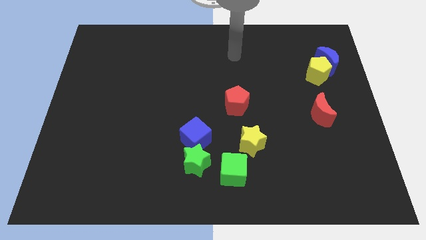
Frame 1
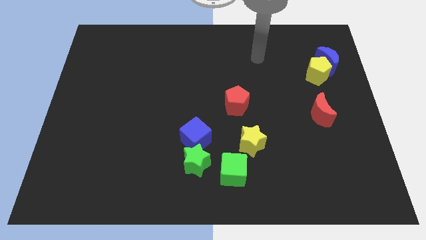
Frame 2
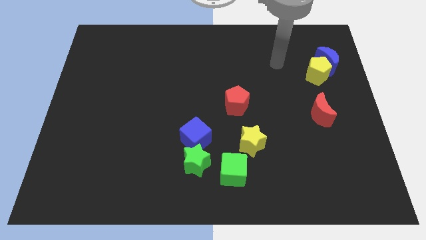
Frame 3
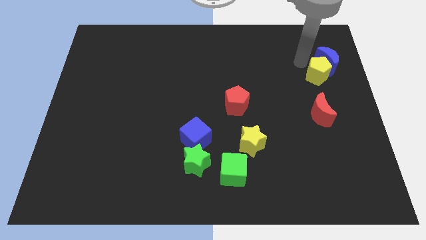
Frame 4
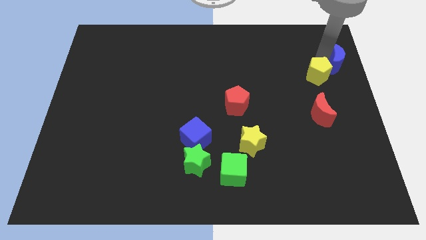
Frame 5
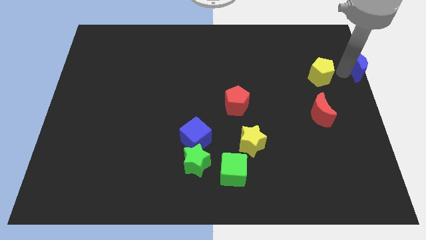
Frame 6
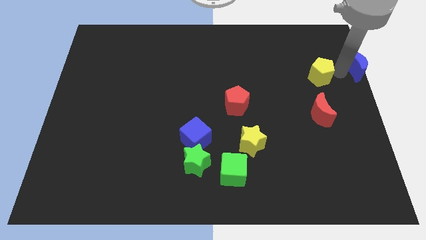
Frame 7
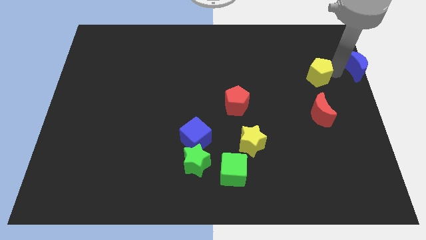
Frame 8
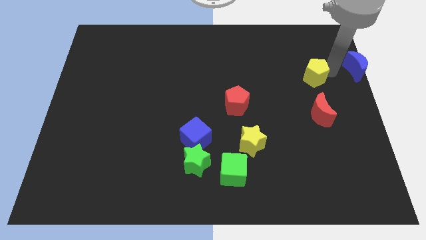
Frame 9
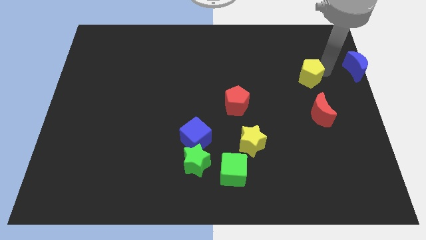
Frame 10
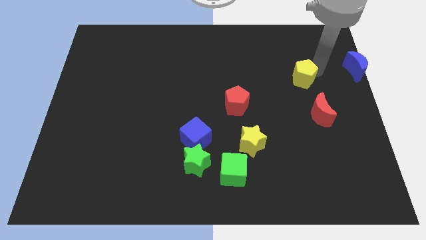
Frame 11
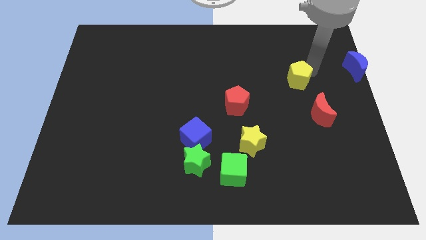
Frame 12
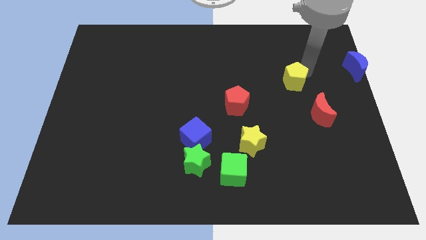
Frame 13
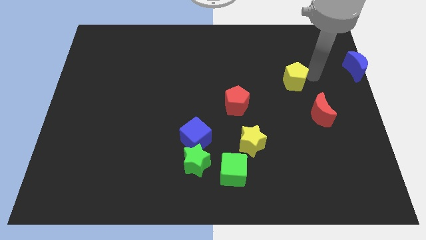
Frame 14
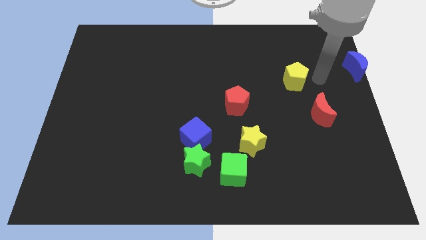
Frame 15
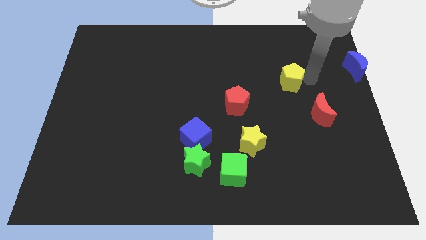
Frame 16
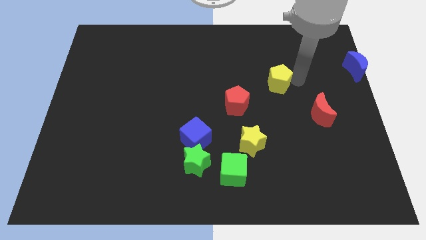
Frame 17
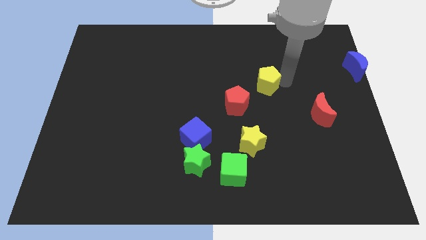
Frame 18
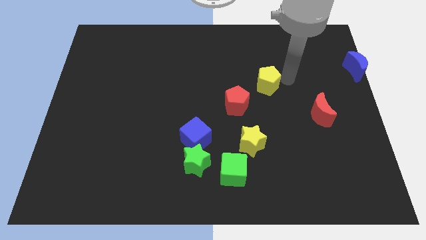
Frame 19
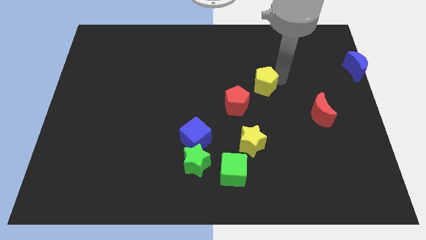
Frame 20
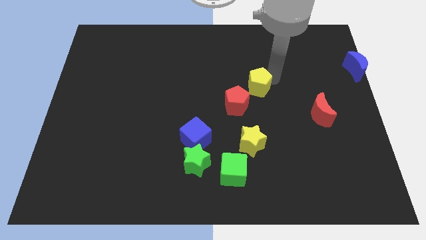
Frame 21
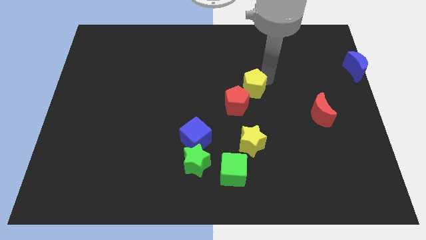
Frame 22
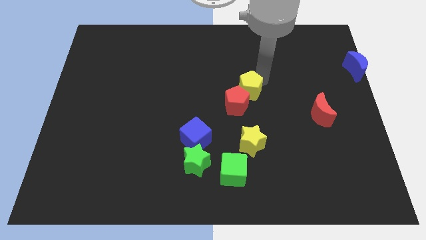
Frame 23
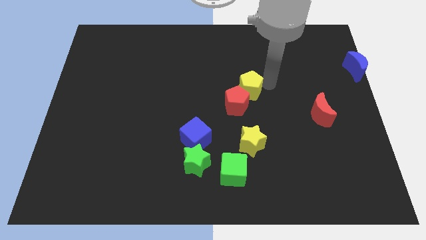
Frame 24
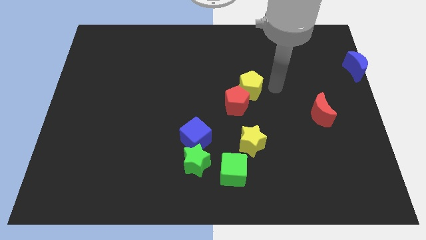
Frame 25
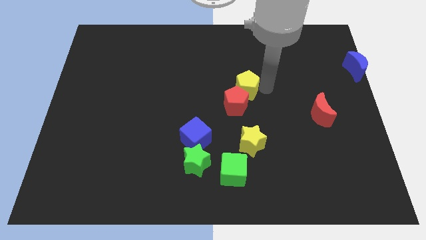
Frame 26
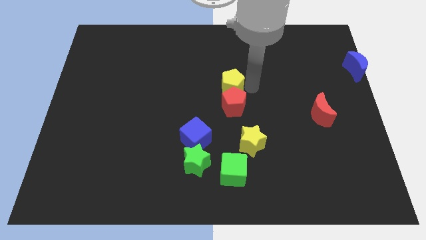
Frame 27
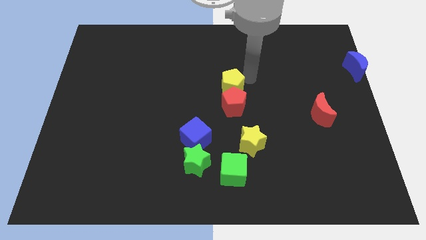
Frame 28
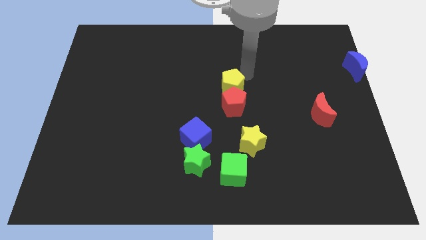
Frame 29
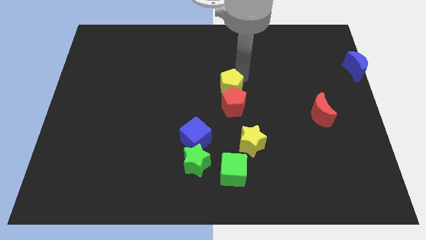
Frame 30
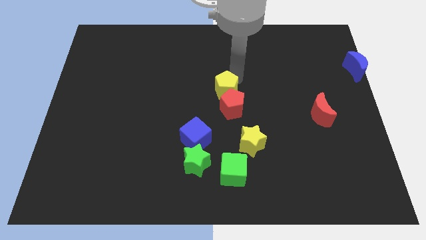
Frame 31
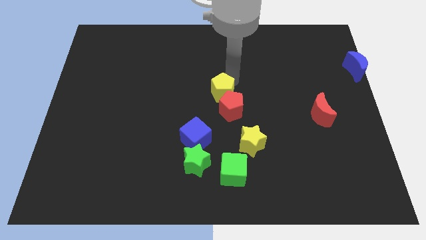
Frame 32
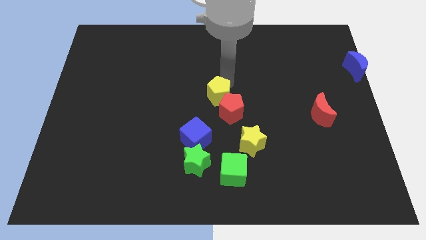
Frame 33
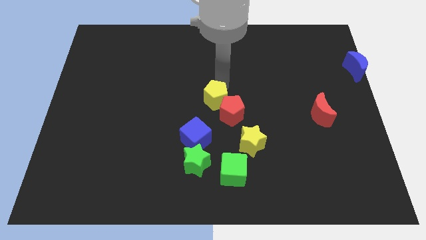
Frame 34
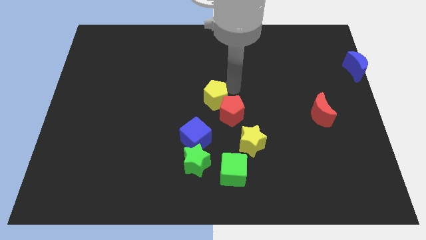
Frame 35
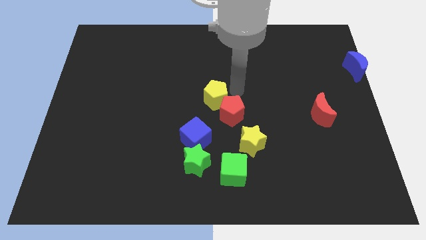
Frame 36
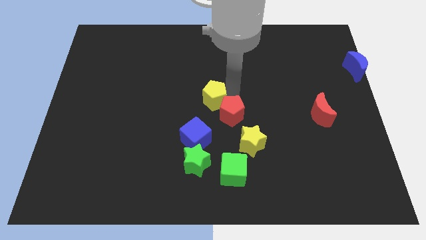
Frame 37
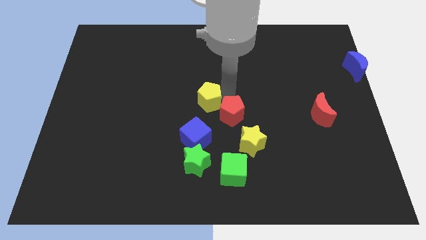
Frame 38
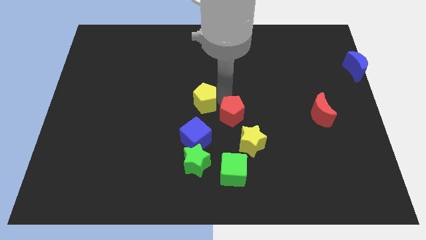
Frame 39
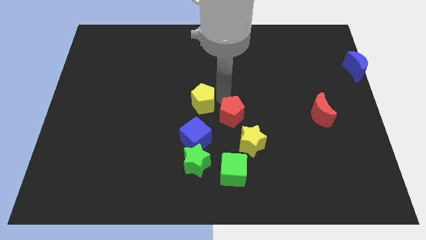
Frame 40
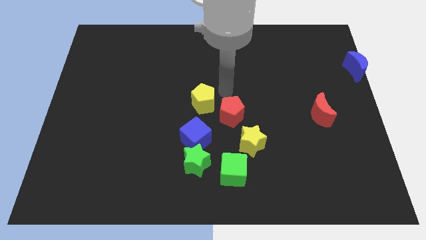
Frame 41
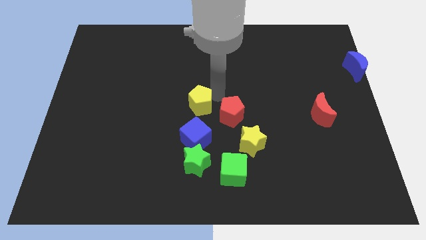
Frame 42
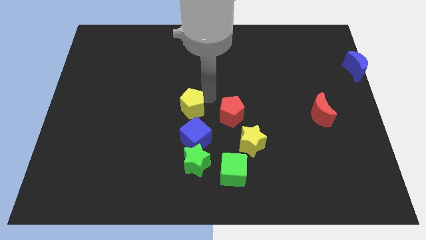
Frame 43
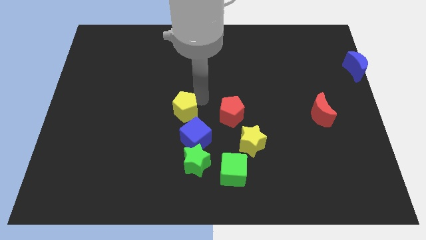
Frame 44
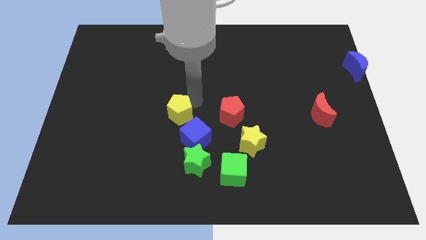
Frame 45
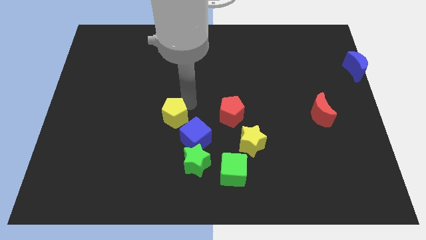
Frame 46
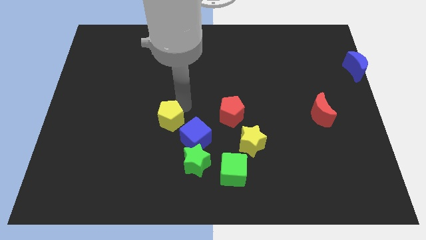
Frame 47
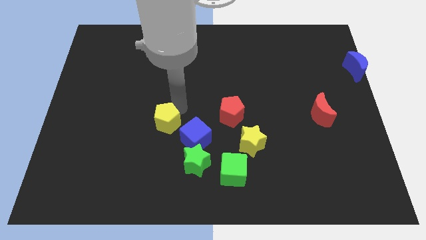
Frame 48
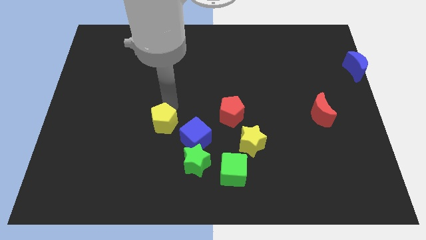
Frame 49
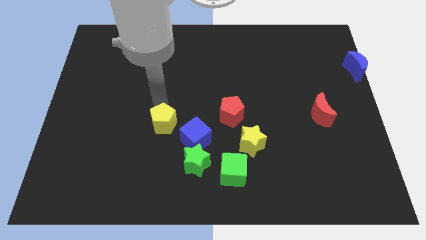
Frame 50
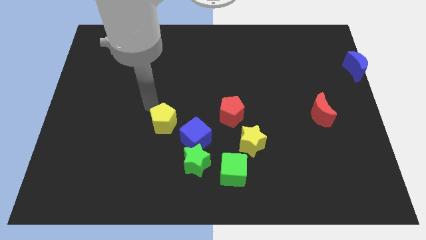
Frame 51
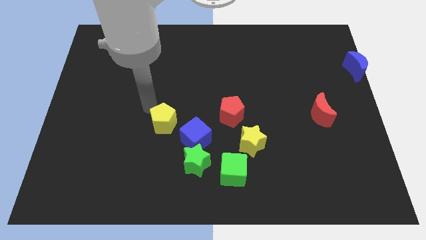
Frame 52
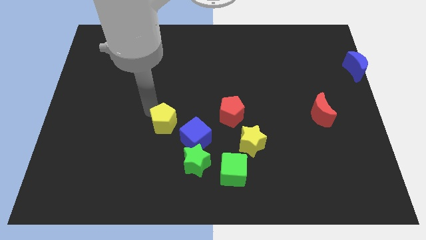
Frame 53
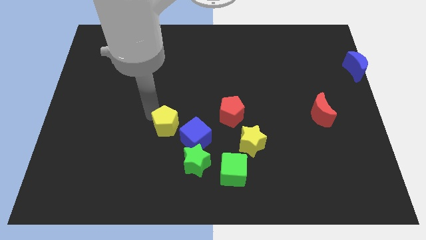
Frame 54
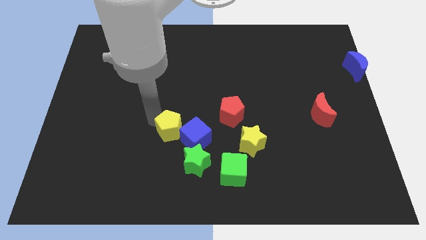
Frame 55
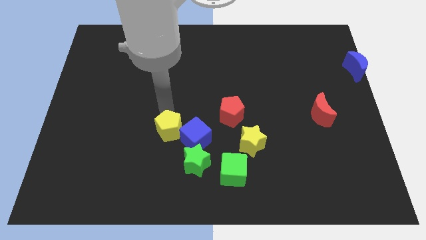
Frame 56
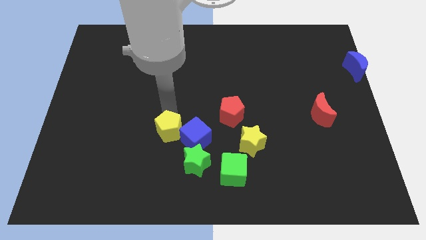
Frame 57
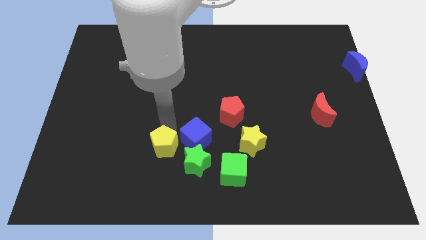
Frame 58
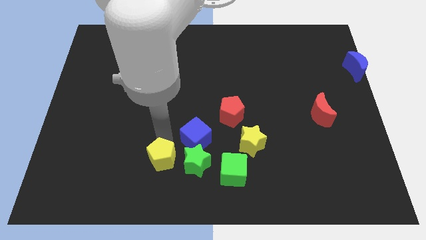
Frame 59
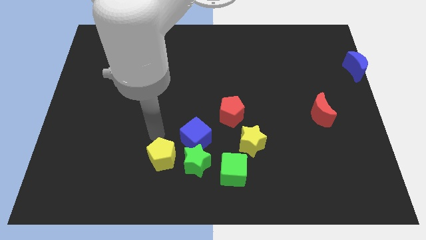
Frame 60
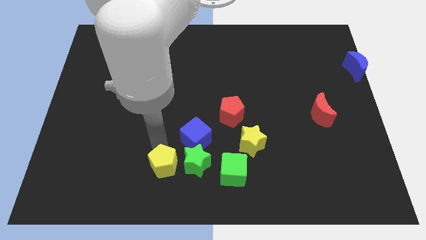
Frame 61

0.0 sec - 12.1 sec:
put the yellow pentagon diagonally down and to the left of the green star

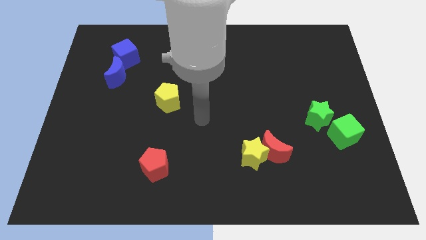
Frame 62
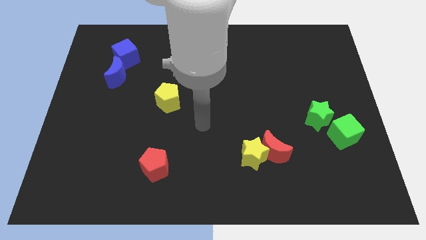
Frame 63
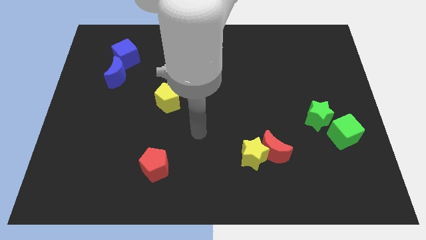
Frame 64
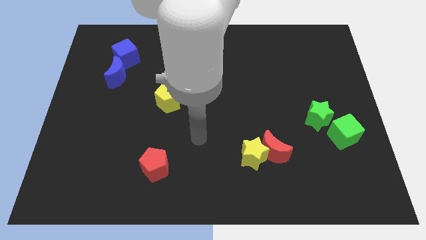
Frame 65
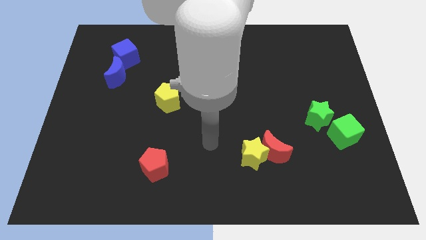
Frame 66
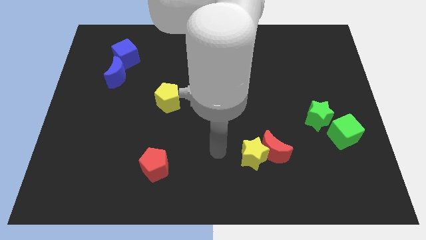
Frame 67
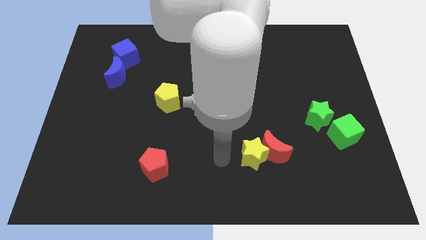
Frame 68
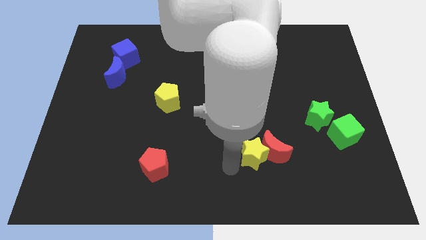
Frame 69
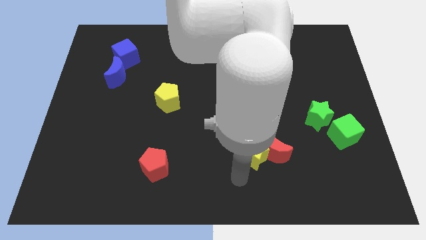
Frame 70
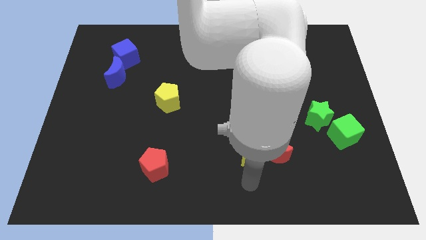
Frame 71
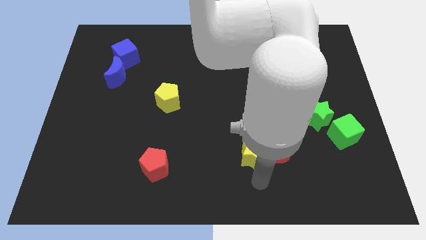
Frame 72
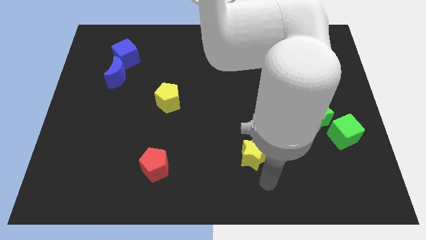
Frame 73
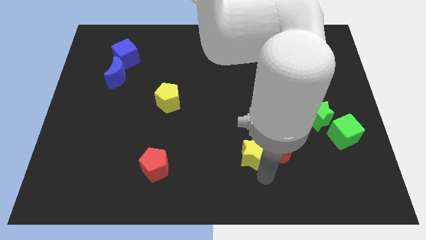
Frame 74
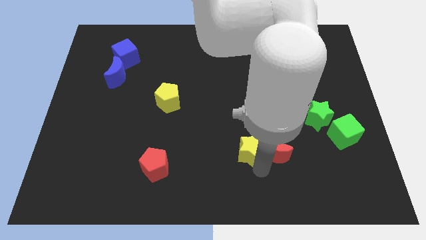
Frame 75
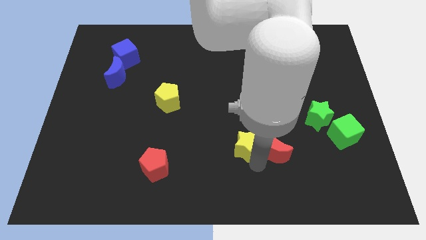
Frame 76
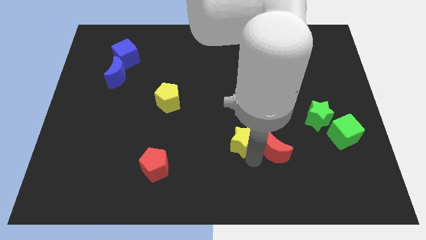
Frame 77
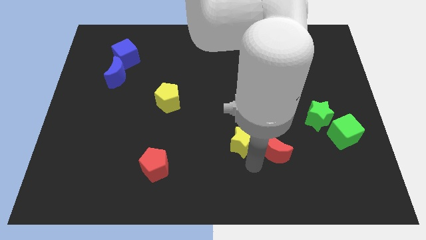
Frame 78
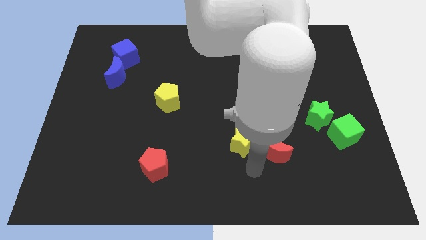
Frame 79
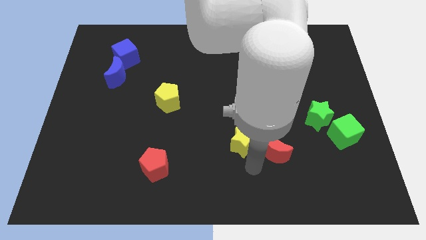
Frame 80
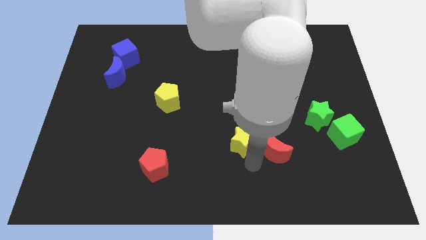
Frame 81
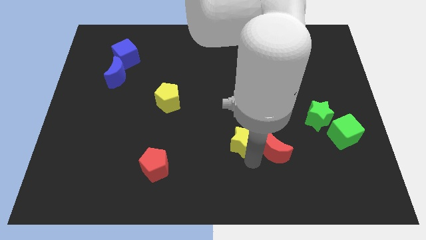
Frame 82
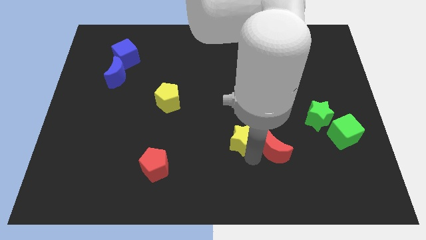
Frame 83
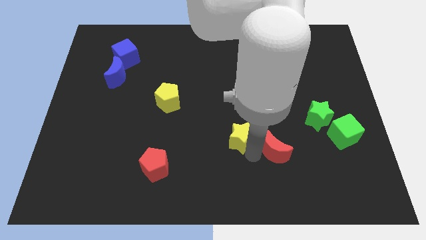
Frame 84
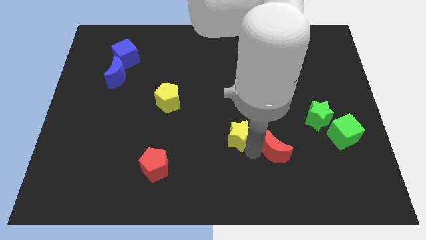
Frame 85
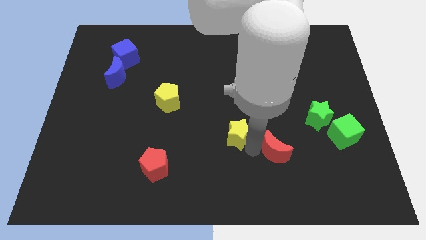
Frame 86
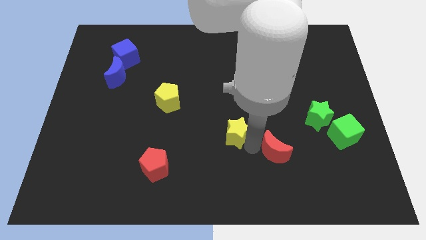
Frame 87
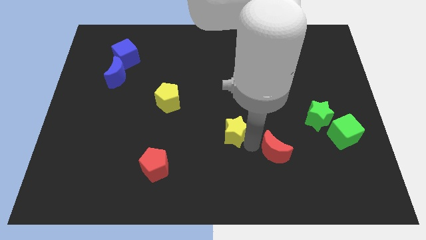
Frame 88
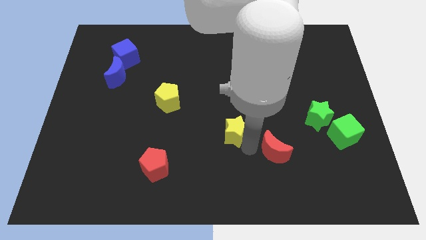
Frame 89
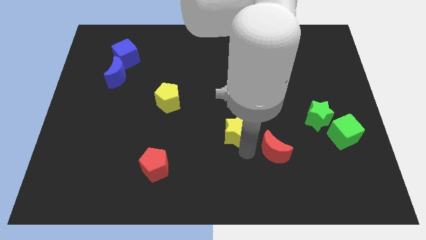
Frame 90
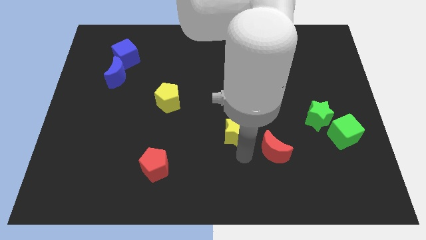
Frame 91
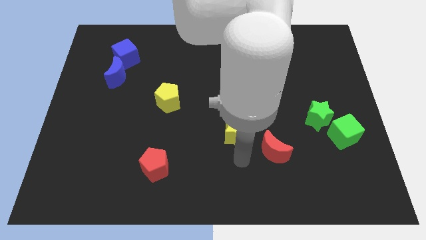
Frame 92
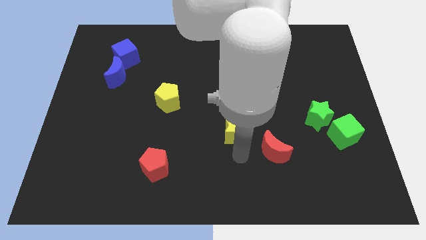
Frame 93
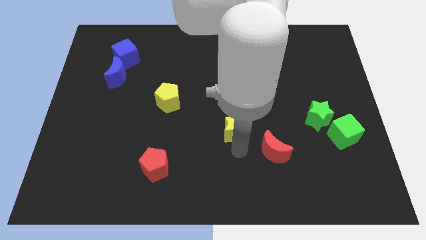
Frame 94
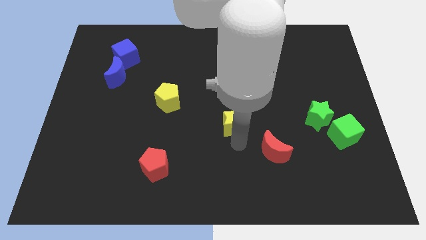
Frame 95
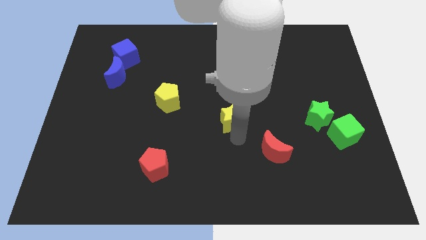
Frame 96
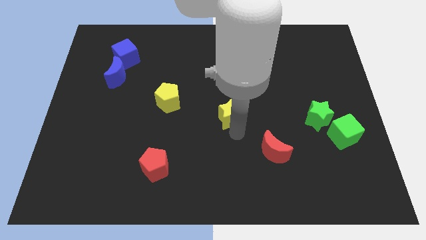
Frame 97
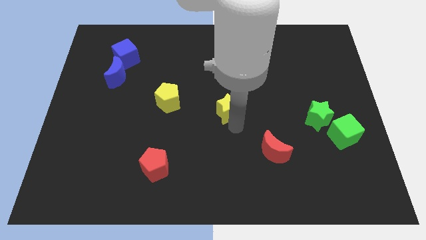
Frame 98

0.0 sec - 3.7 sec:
move the yellow star just right of the yellow pentagon
